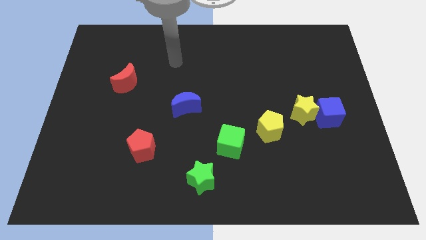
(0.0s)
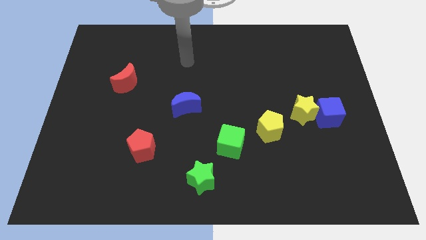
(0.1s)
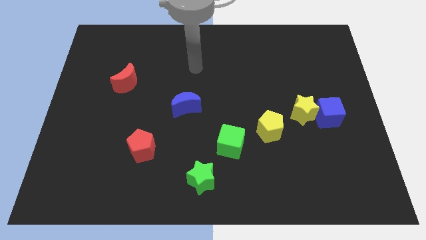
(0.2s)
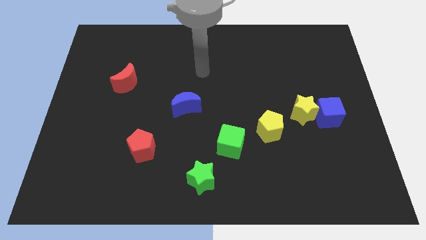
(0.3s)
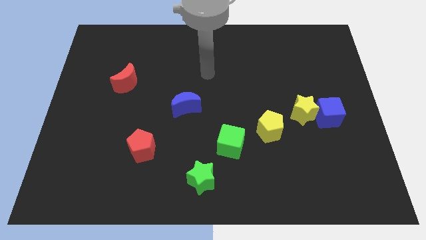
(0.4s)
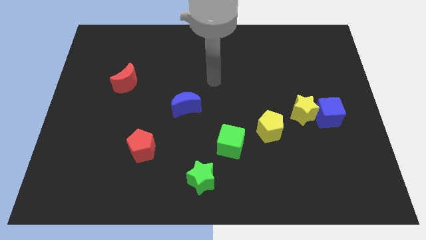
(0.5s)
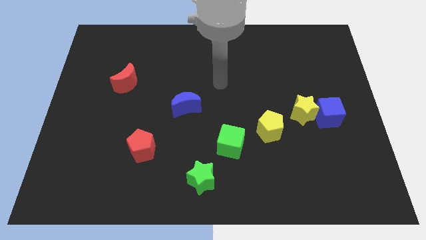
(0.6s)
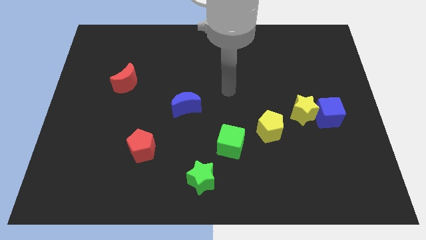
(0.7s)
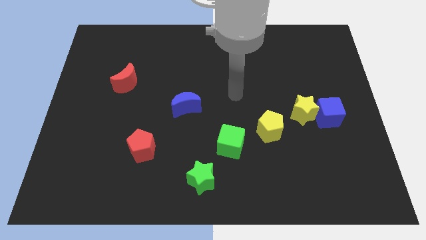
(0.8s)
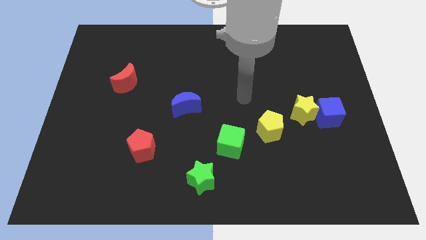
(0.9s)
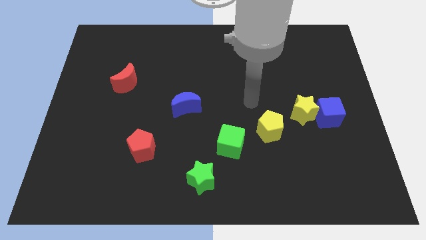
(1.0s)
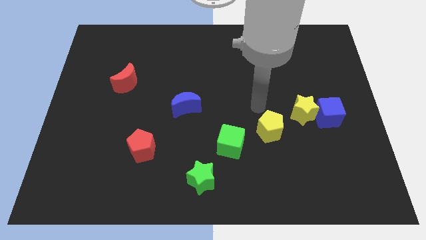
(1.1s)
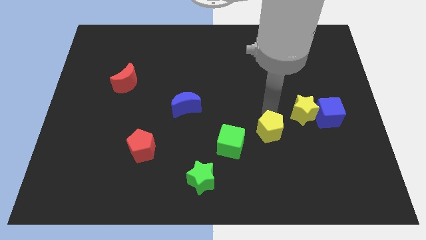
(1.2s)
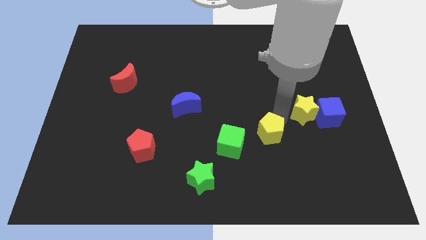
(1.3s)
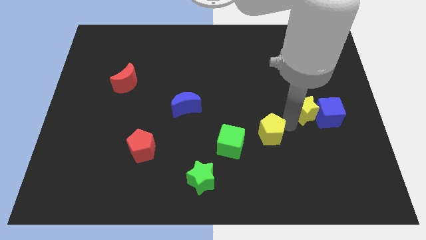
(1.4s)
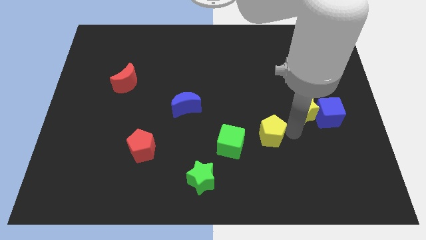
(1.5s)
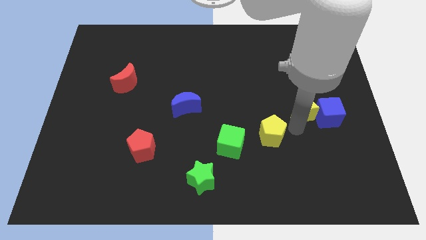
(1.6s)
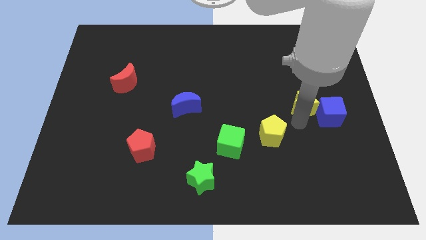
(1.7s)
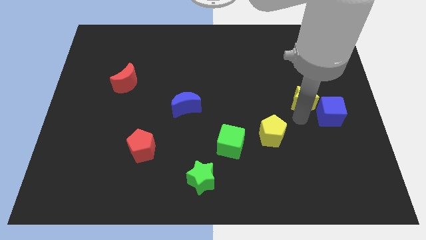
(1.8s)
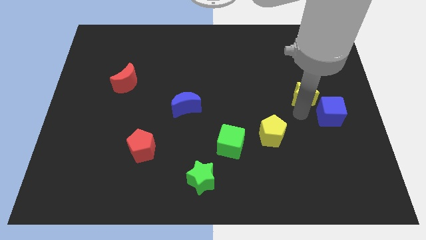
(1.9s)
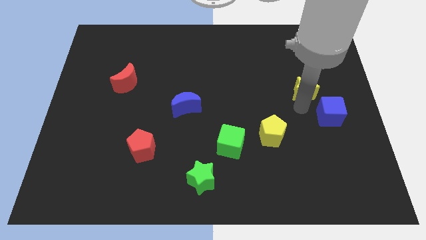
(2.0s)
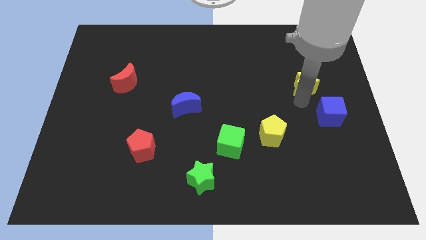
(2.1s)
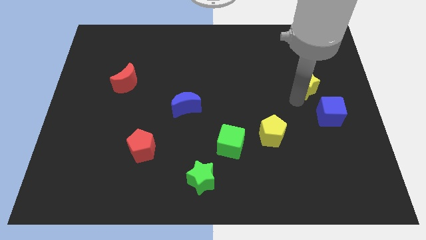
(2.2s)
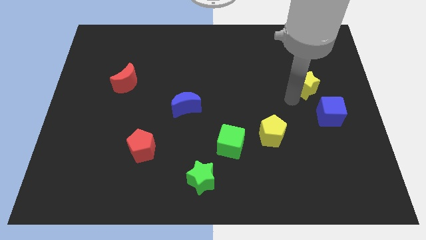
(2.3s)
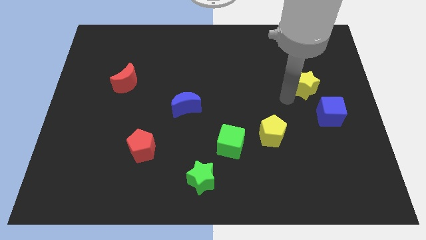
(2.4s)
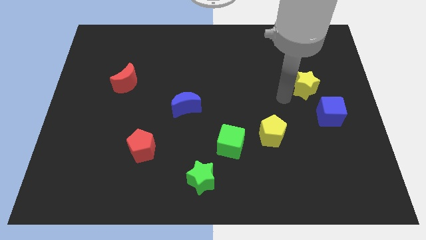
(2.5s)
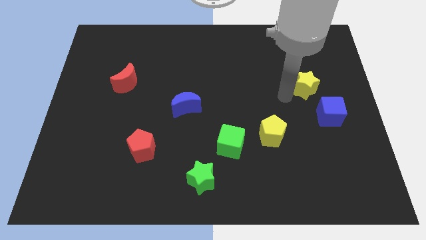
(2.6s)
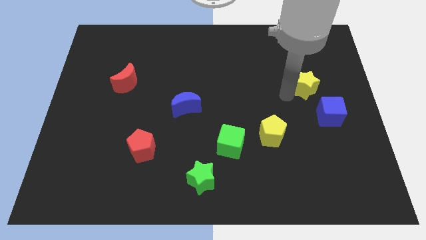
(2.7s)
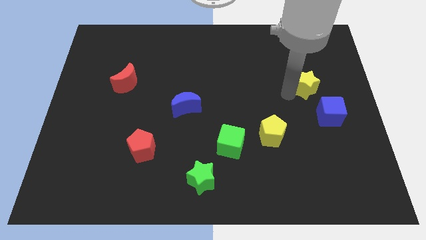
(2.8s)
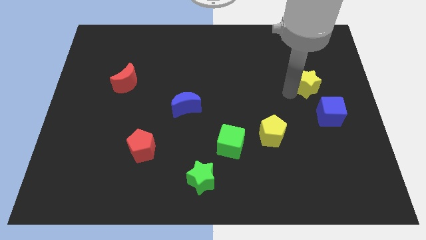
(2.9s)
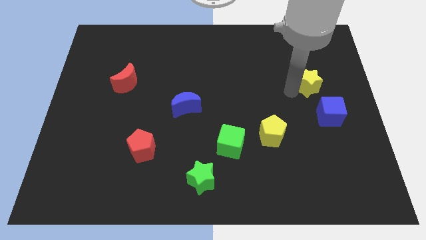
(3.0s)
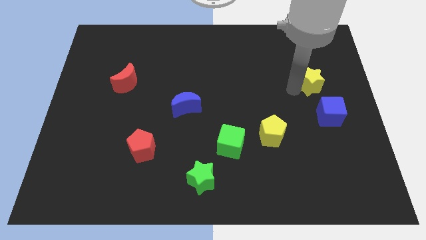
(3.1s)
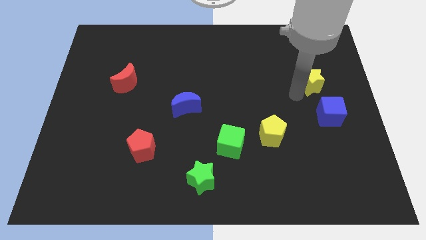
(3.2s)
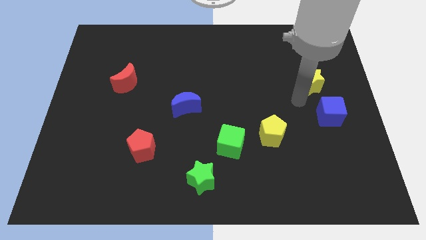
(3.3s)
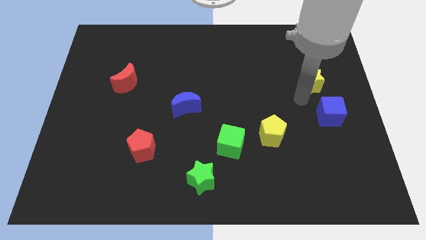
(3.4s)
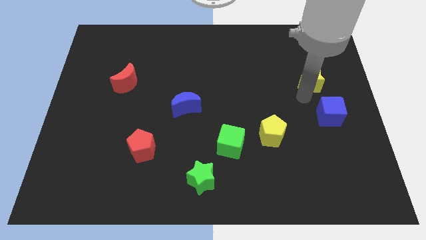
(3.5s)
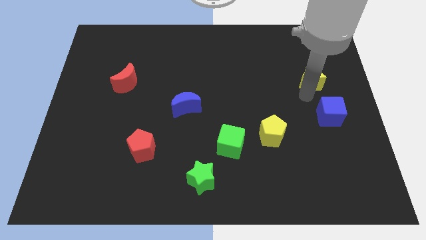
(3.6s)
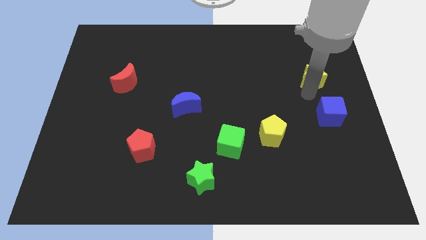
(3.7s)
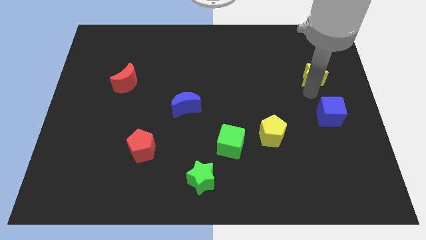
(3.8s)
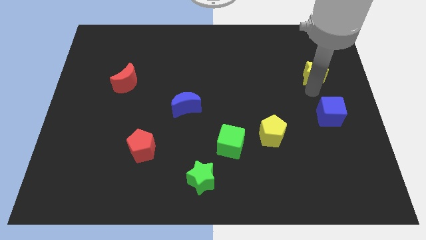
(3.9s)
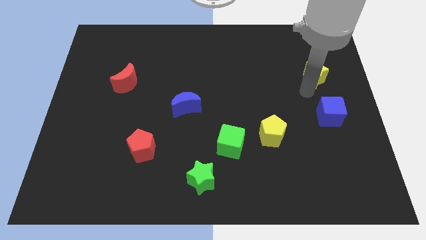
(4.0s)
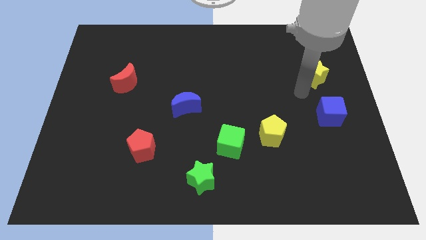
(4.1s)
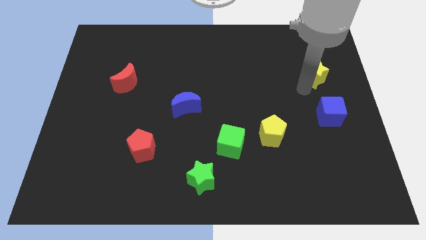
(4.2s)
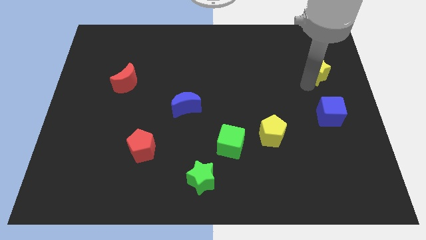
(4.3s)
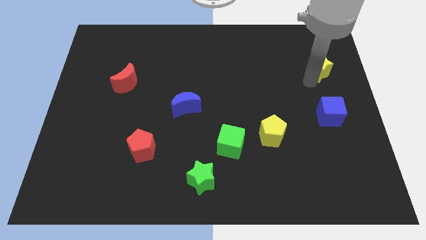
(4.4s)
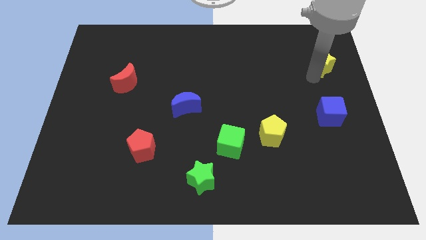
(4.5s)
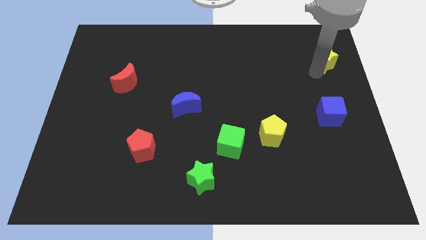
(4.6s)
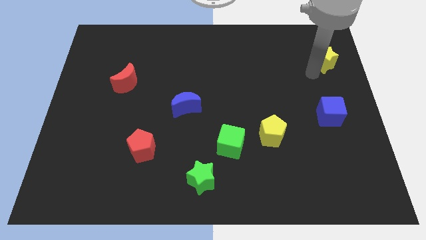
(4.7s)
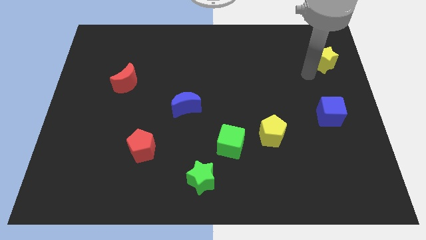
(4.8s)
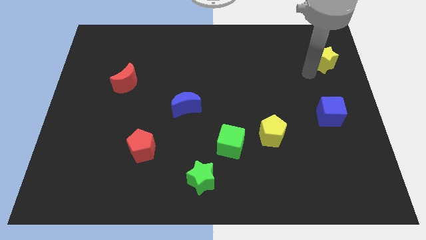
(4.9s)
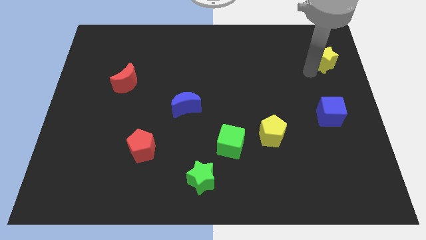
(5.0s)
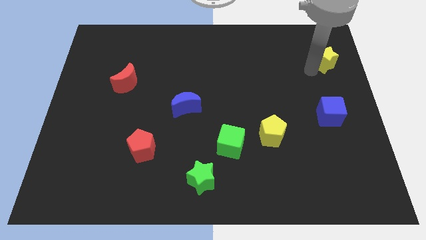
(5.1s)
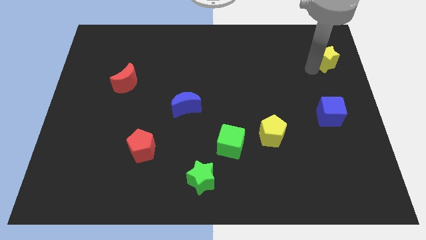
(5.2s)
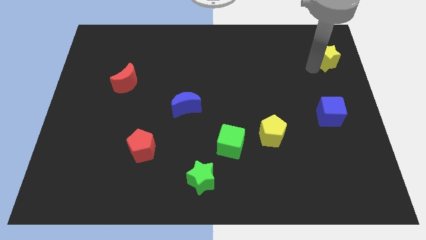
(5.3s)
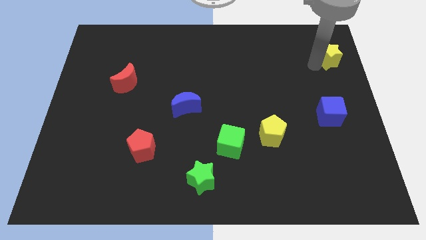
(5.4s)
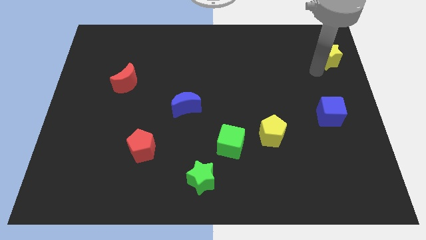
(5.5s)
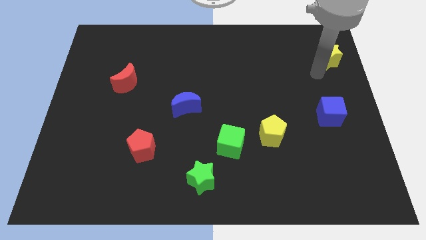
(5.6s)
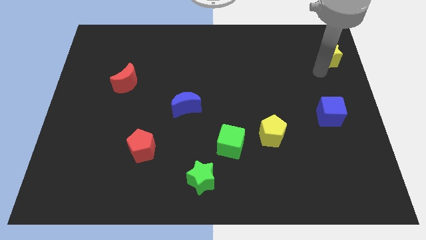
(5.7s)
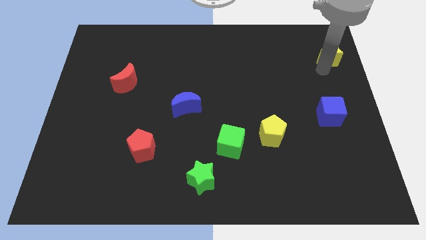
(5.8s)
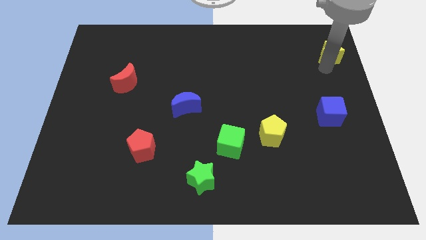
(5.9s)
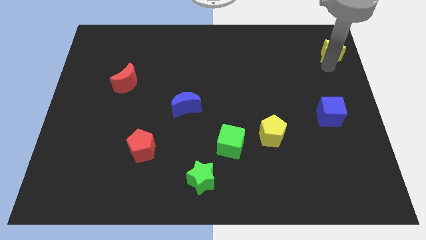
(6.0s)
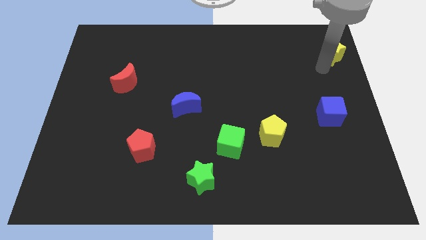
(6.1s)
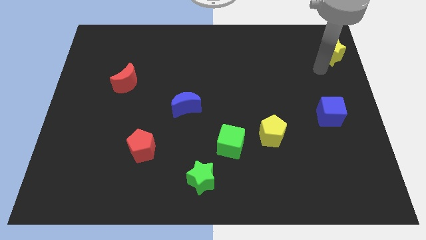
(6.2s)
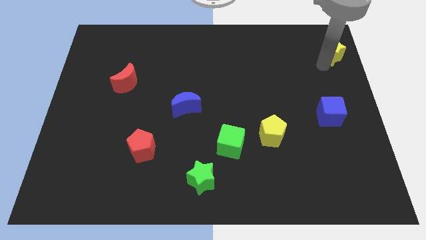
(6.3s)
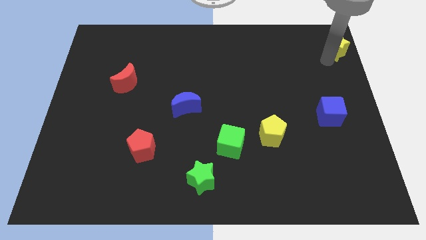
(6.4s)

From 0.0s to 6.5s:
slide the yellow star to the top right of the board
